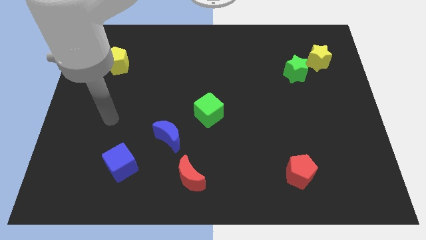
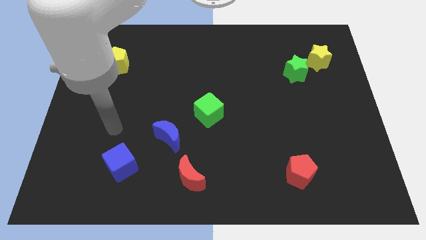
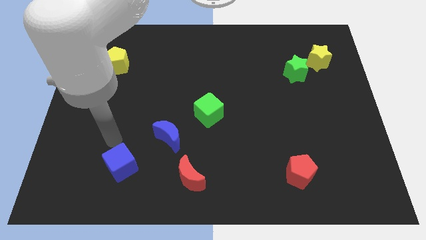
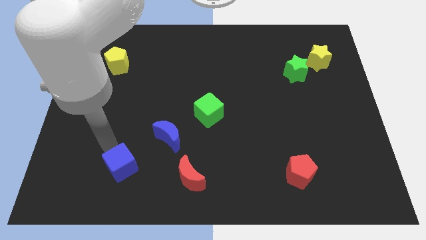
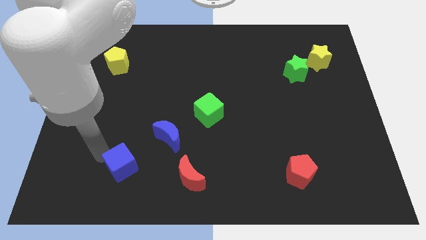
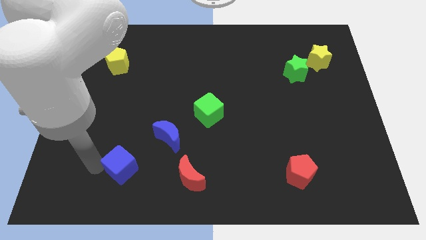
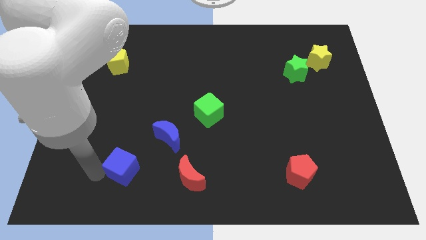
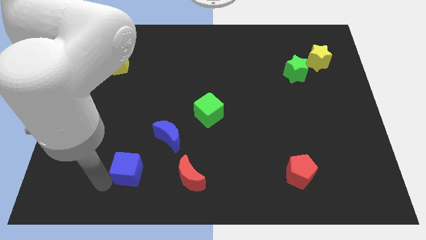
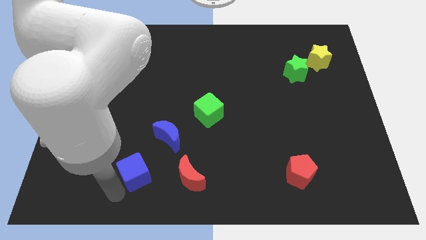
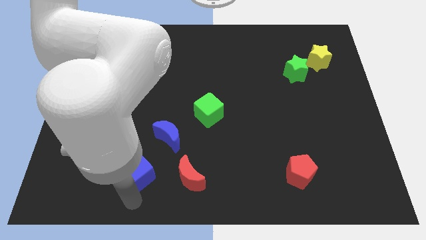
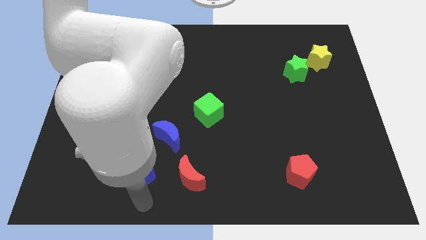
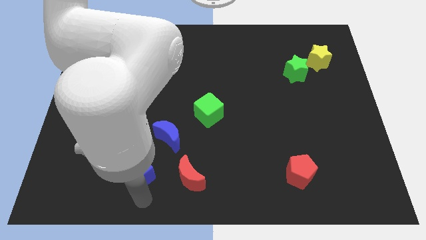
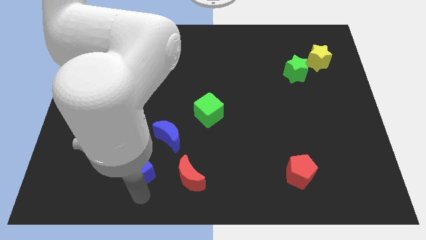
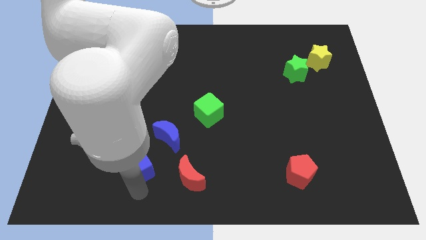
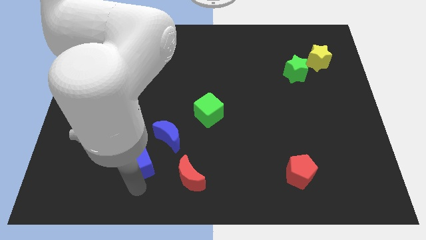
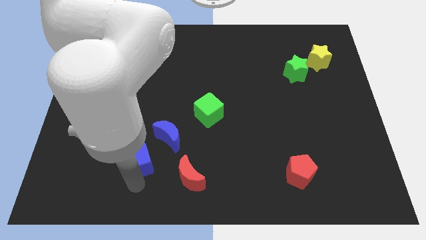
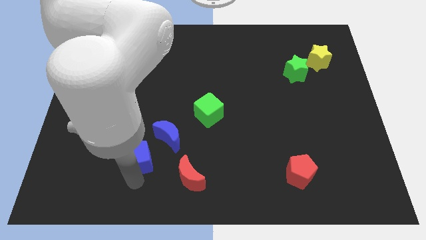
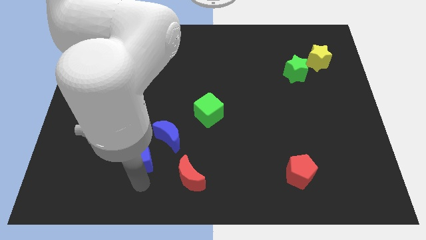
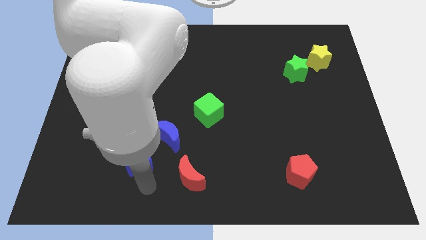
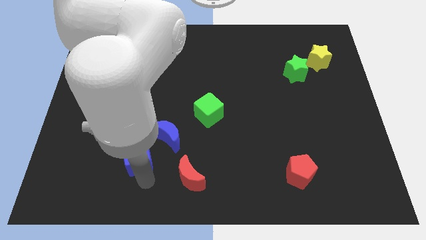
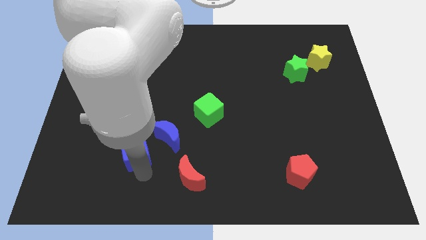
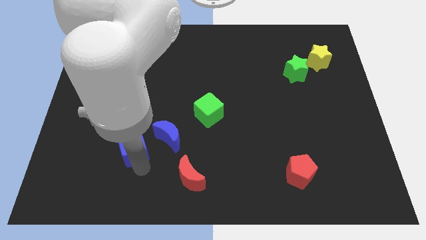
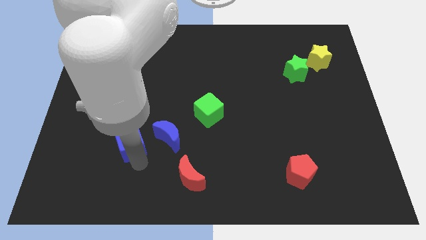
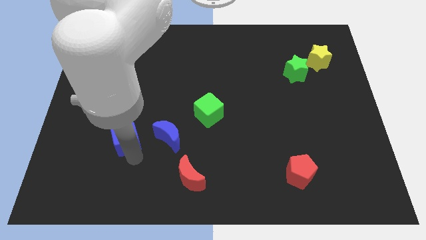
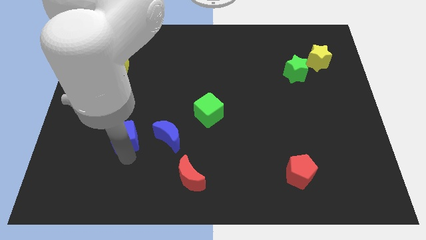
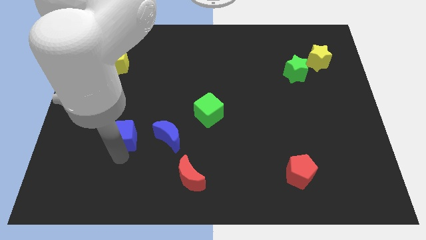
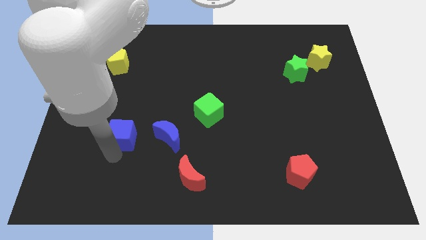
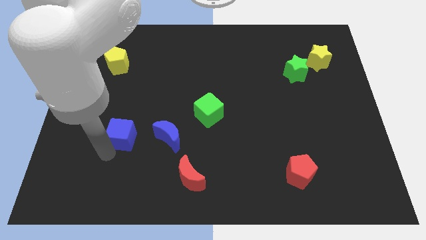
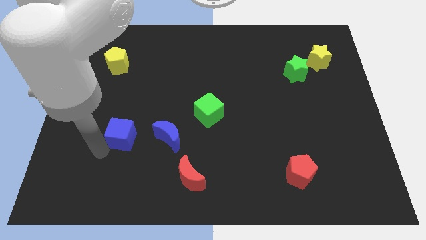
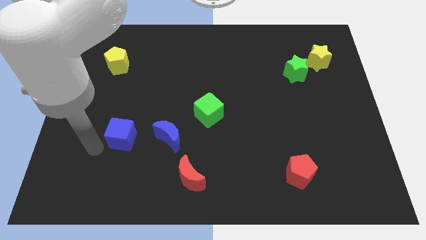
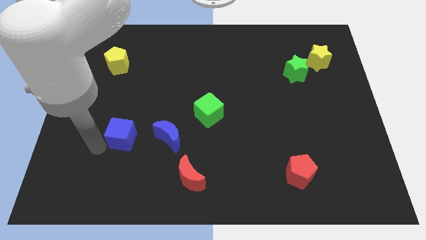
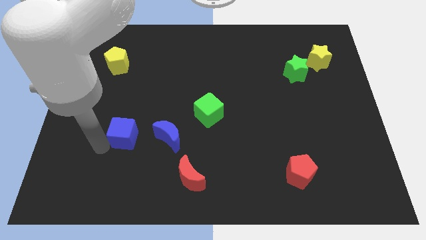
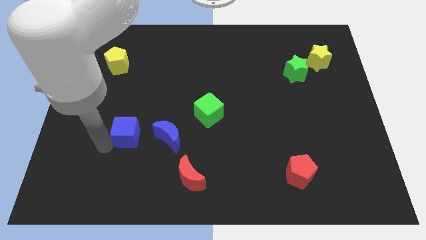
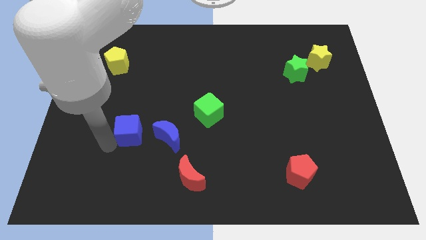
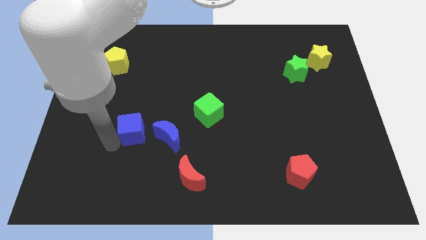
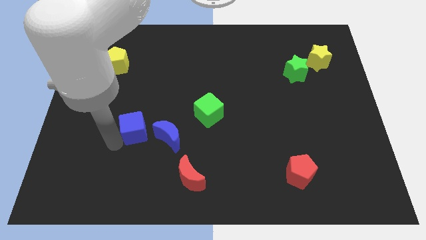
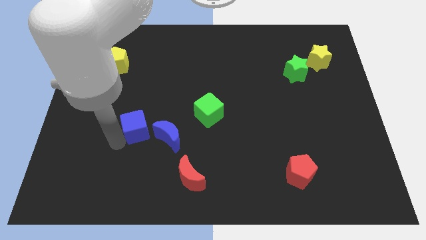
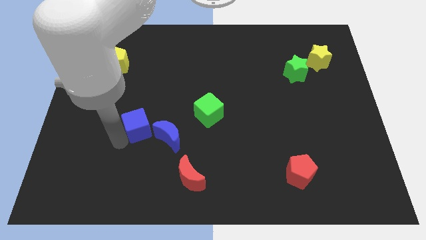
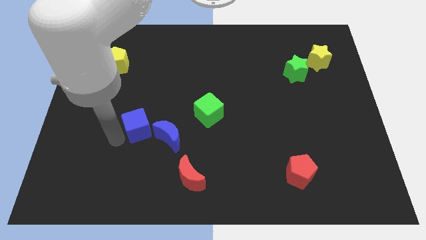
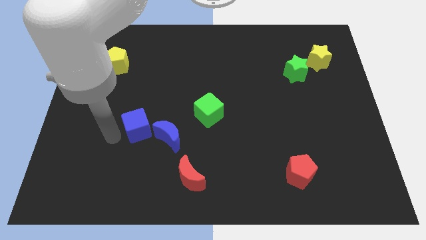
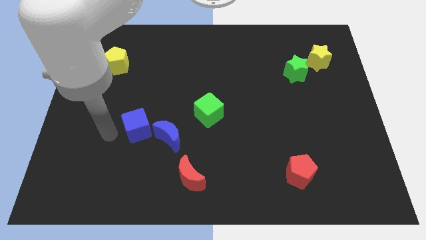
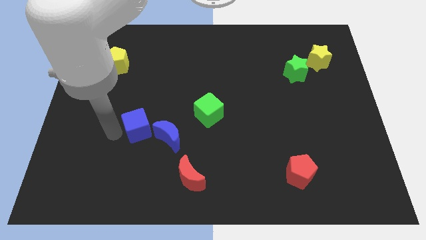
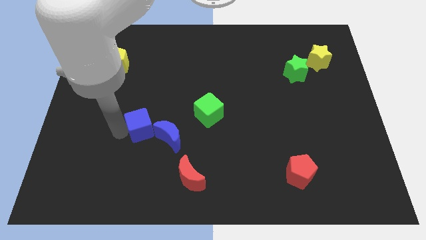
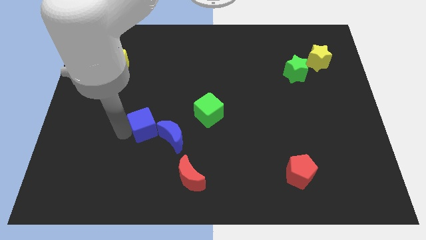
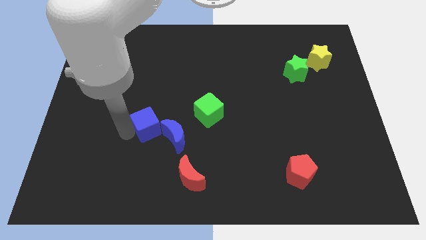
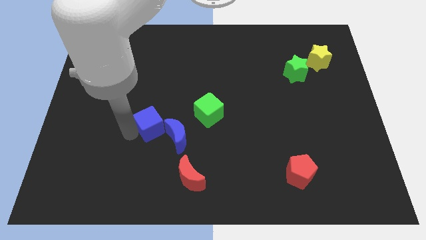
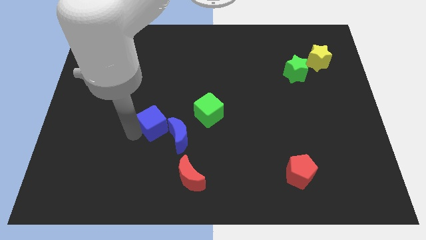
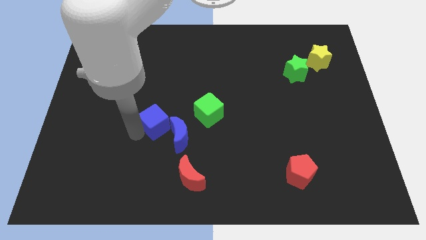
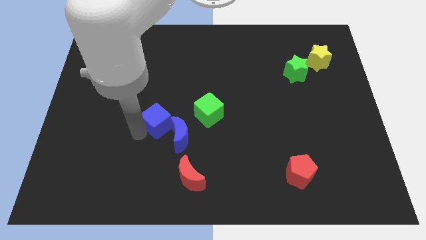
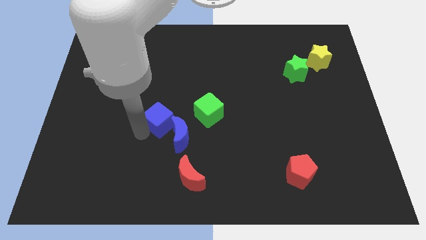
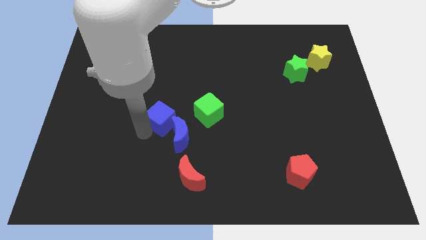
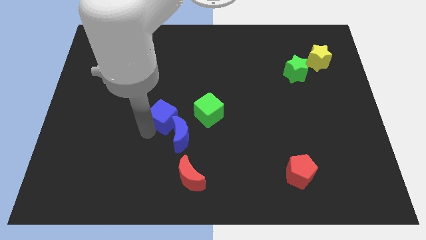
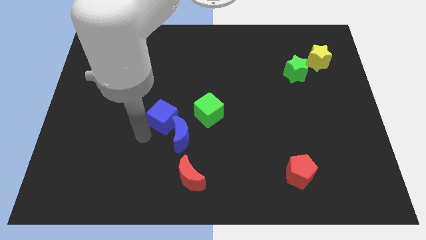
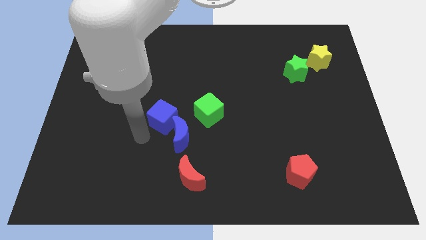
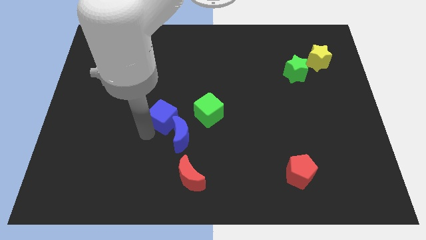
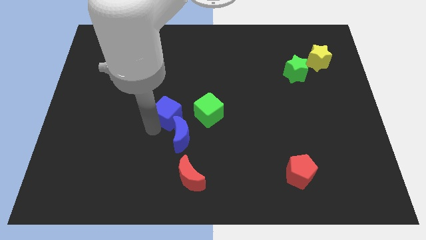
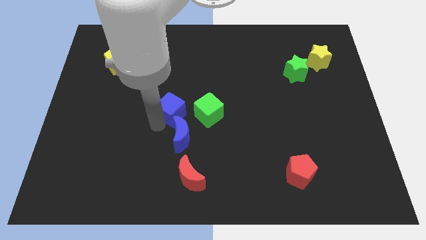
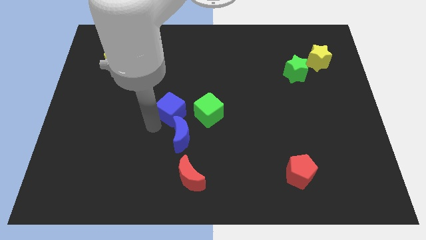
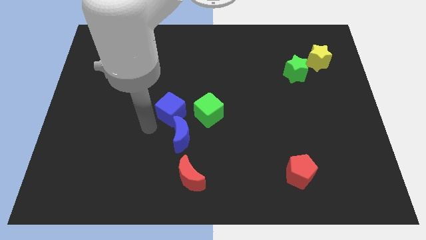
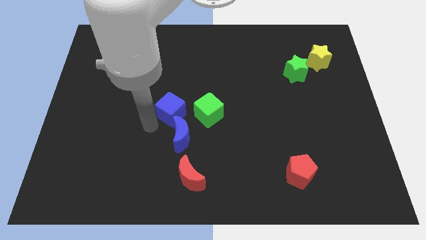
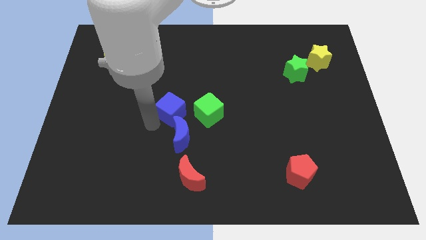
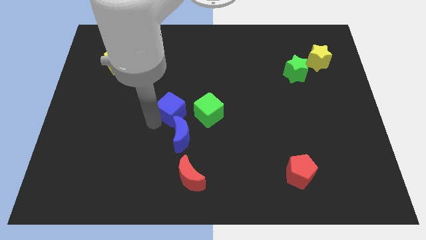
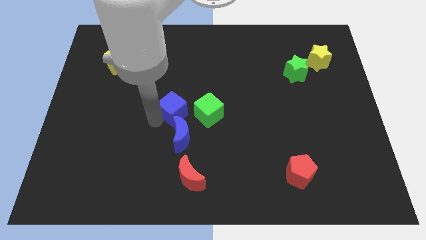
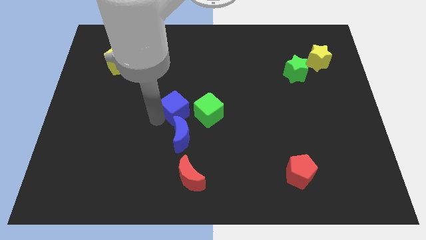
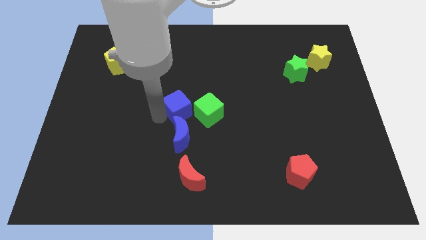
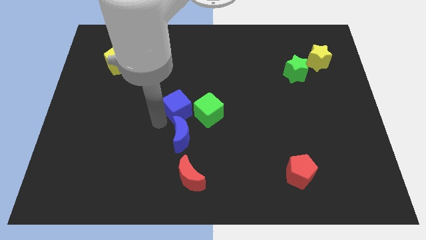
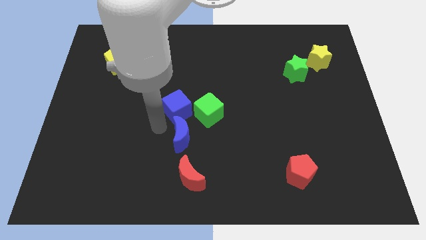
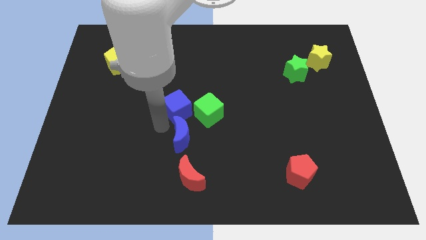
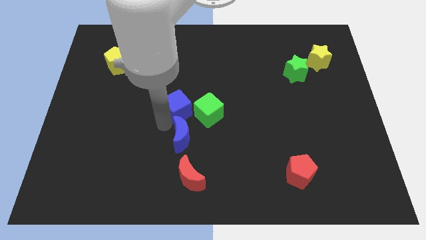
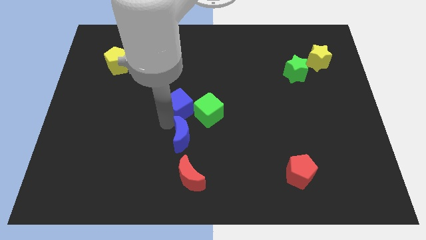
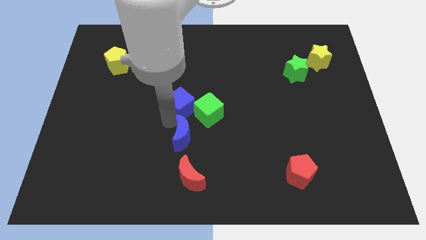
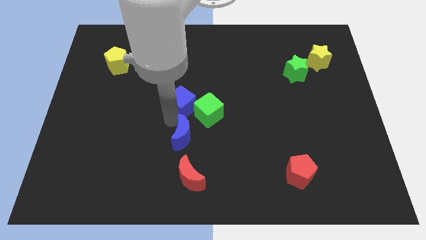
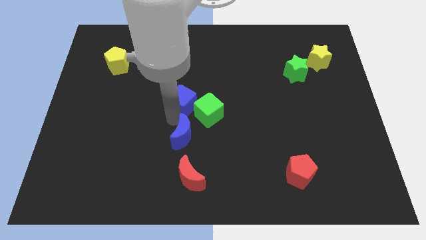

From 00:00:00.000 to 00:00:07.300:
slide the blue cube upwards and right diagonally

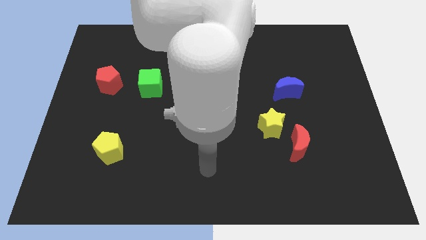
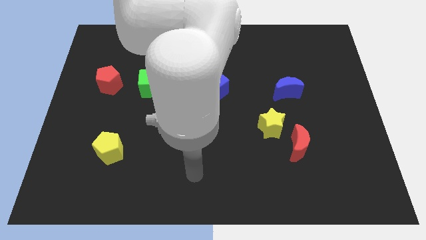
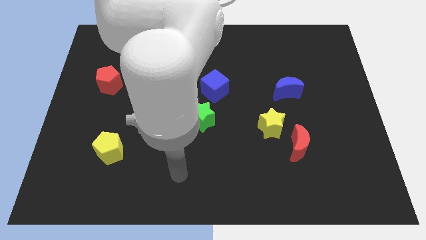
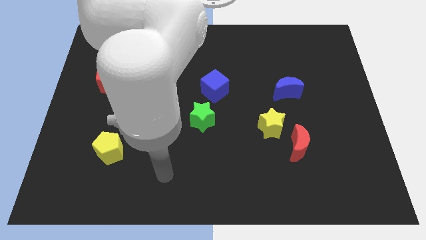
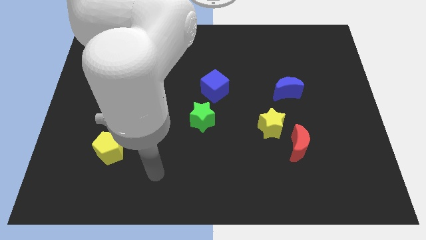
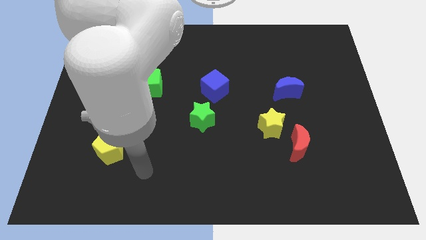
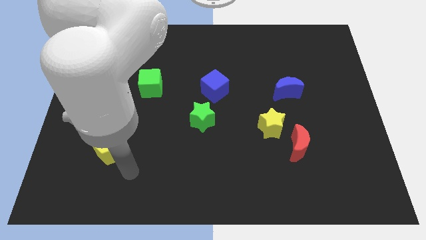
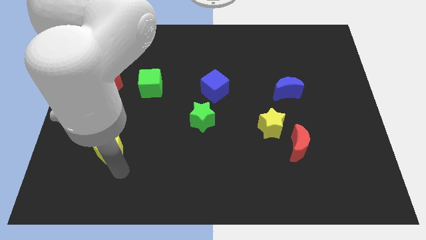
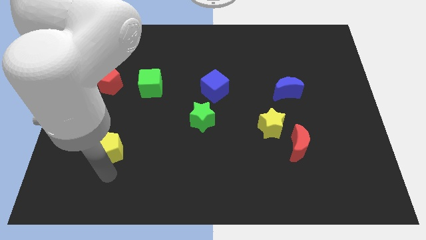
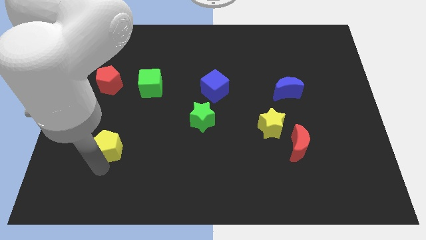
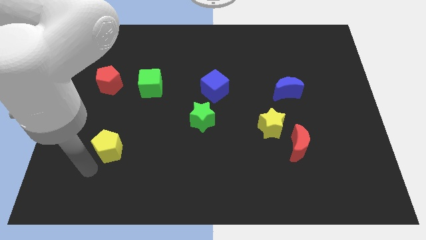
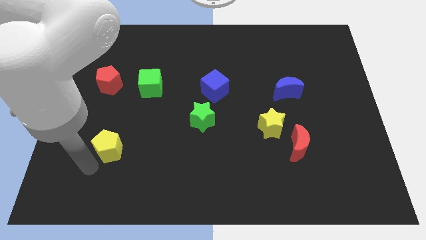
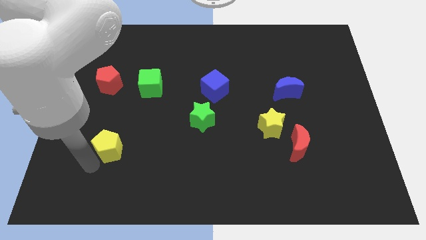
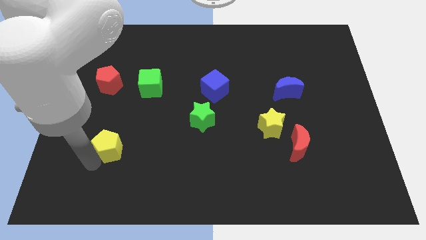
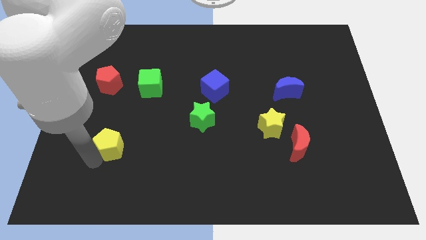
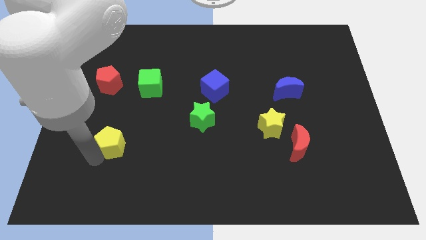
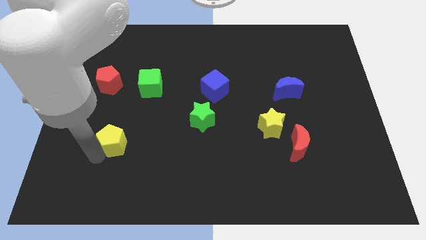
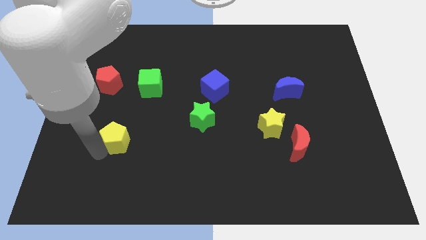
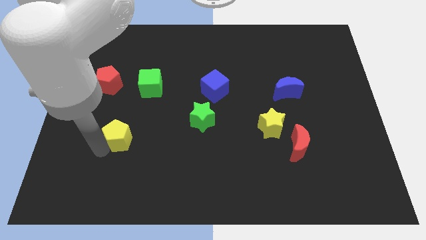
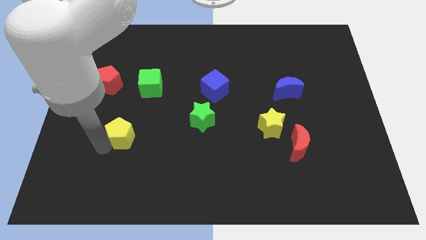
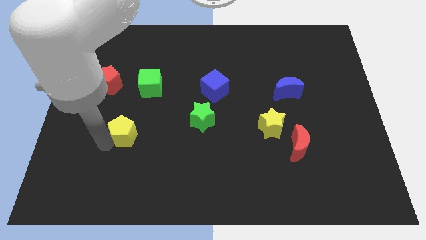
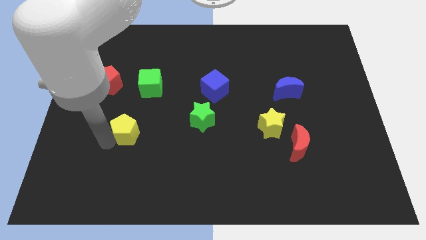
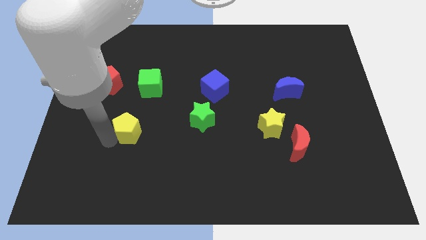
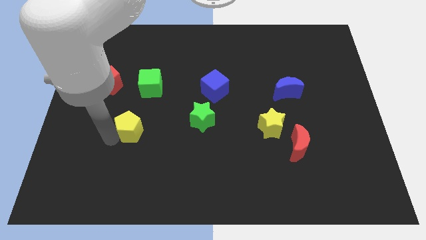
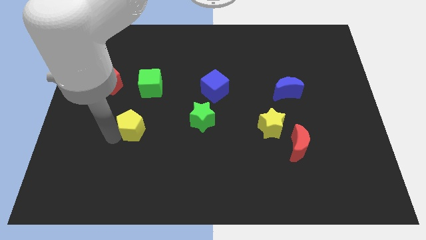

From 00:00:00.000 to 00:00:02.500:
push the yellow pentagon a bit up and right
